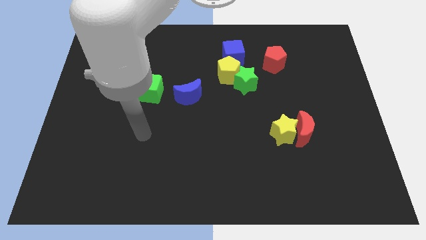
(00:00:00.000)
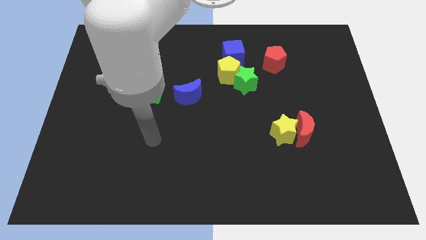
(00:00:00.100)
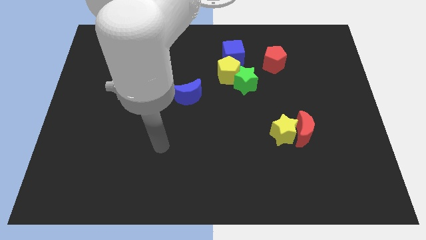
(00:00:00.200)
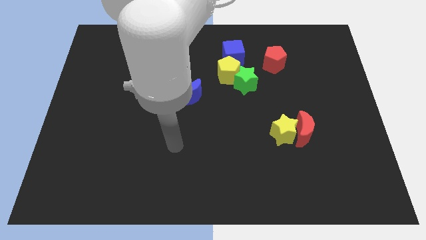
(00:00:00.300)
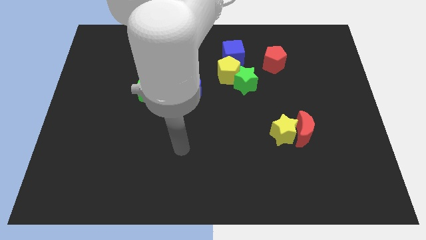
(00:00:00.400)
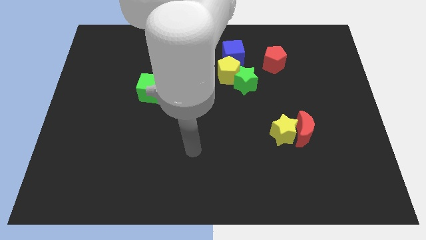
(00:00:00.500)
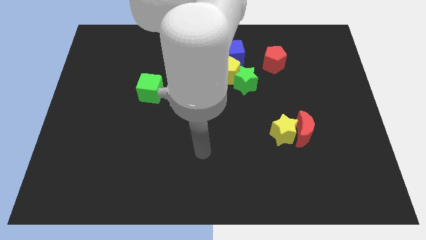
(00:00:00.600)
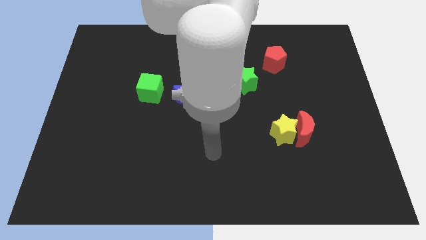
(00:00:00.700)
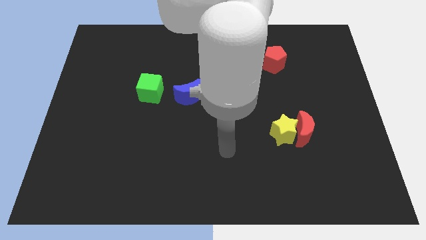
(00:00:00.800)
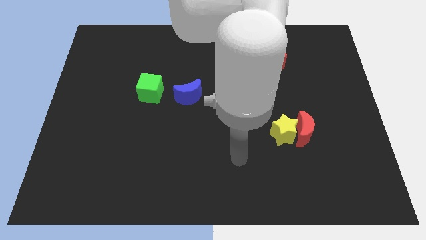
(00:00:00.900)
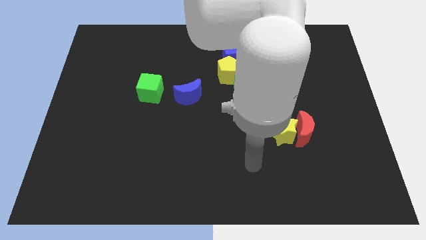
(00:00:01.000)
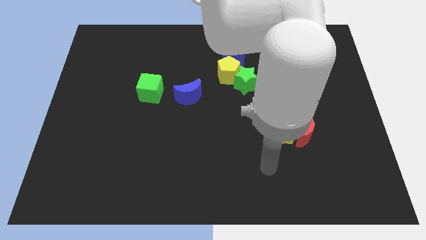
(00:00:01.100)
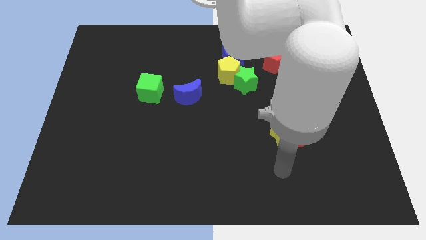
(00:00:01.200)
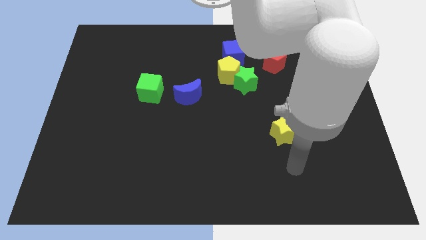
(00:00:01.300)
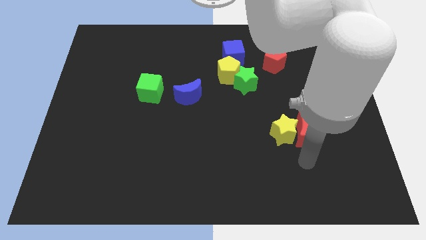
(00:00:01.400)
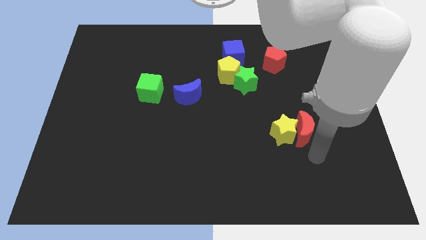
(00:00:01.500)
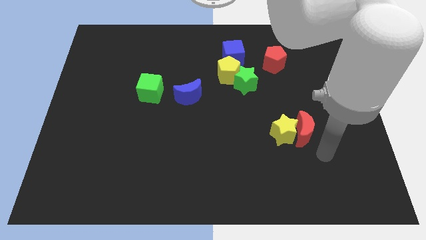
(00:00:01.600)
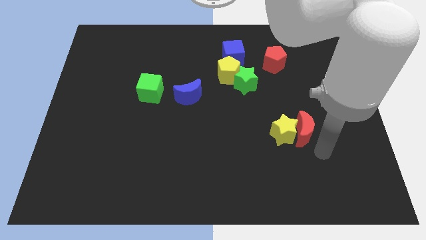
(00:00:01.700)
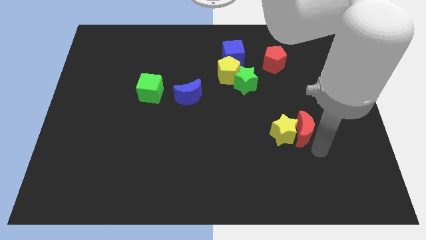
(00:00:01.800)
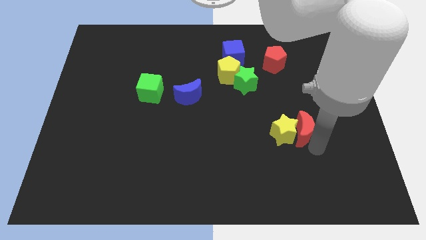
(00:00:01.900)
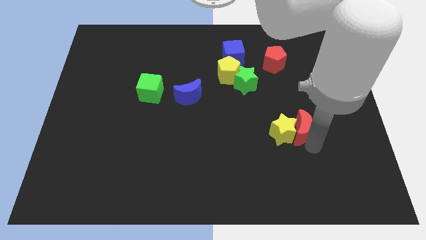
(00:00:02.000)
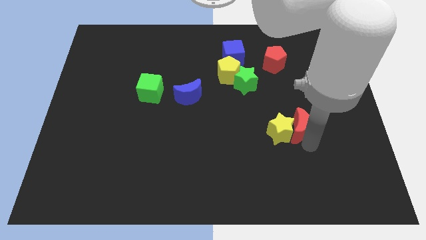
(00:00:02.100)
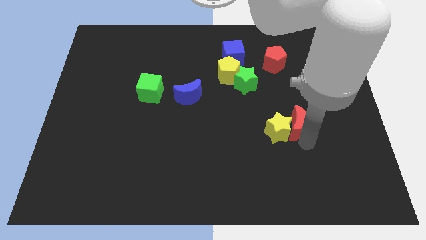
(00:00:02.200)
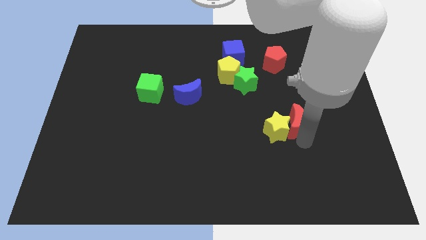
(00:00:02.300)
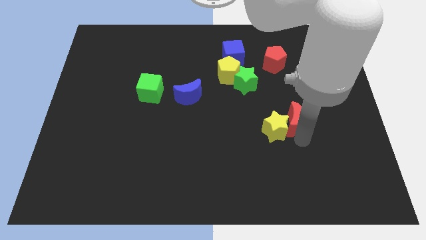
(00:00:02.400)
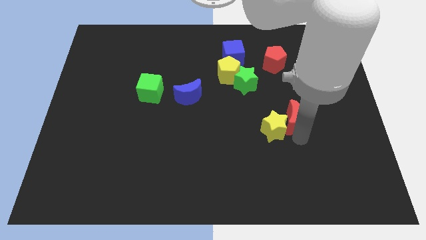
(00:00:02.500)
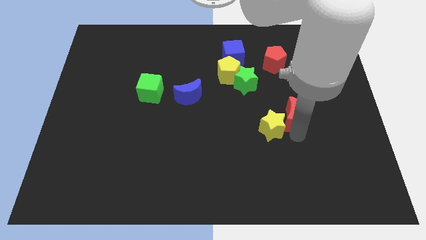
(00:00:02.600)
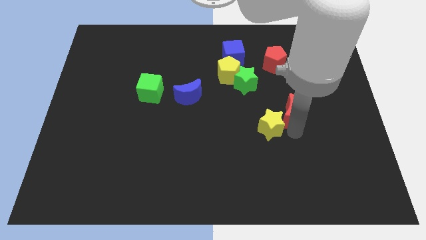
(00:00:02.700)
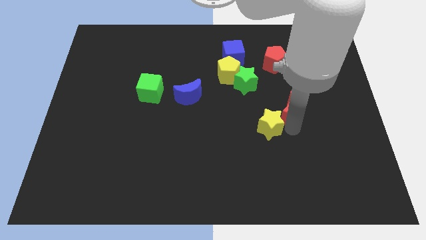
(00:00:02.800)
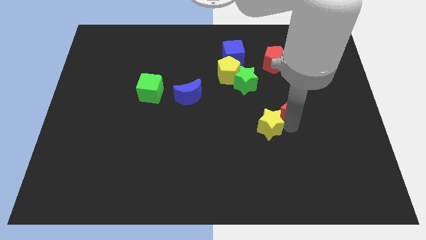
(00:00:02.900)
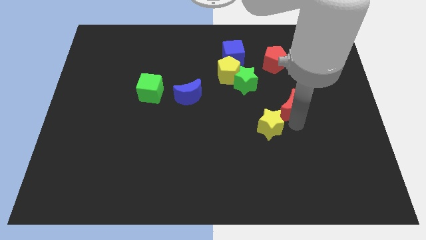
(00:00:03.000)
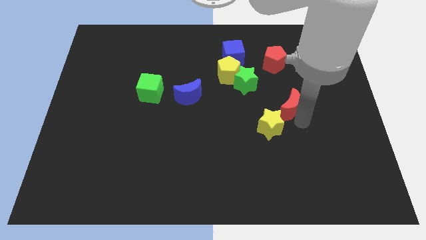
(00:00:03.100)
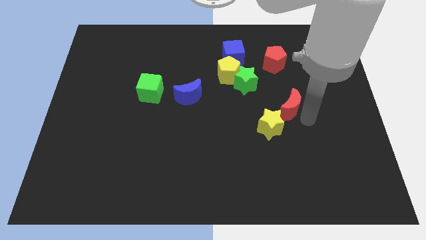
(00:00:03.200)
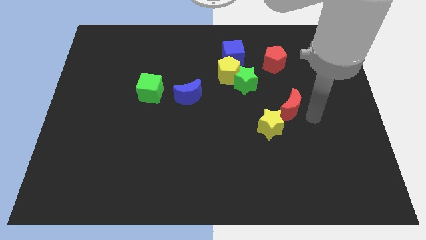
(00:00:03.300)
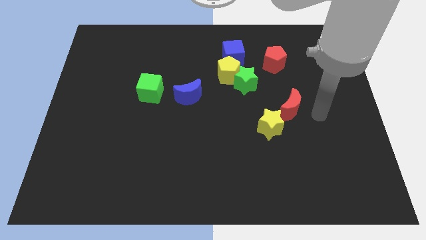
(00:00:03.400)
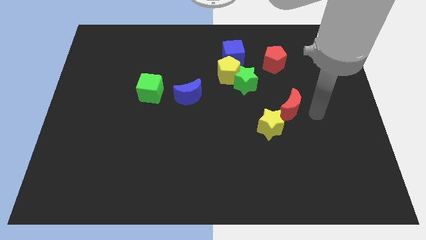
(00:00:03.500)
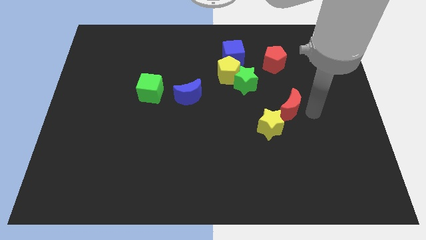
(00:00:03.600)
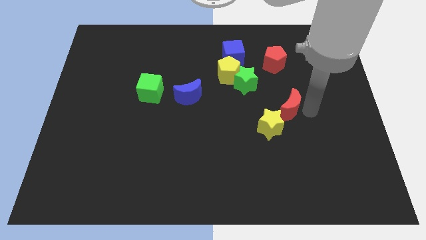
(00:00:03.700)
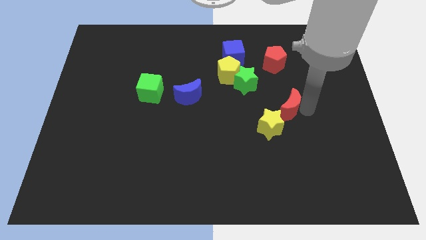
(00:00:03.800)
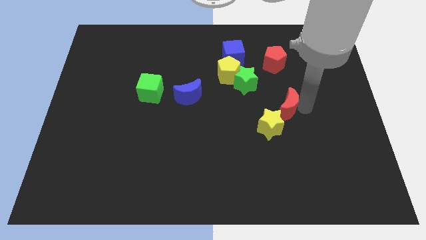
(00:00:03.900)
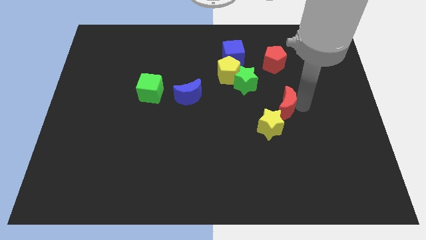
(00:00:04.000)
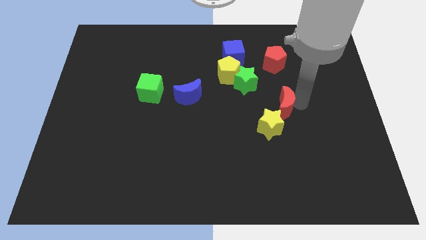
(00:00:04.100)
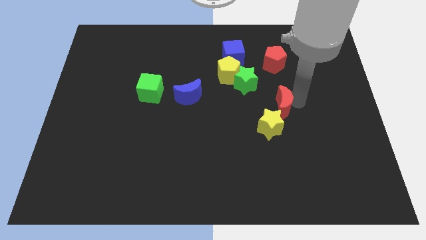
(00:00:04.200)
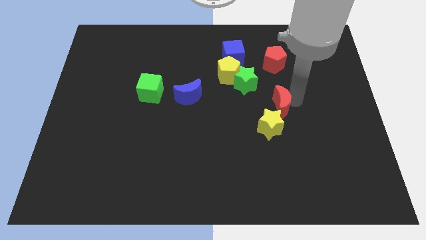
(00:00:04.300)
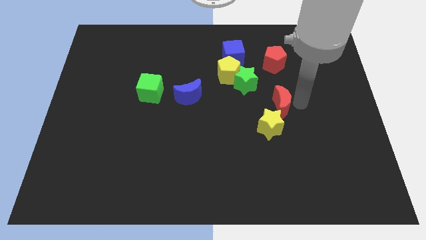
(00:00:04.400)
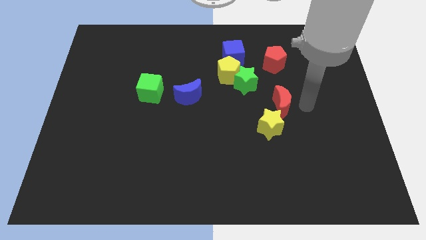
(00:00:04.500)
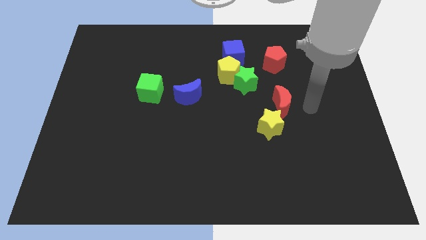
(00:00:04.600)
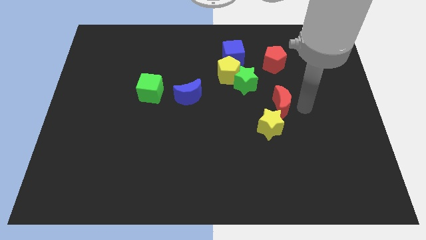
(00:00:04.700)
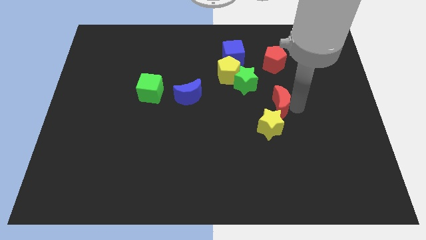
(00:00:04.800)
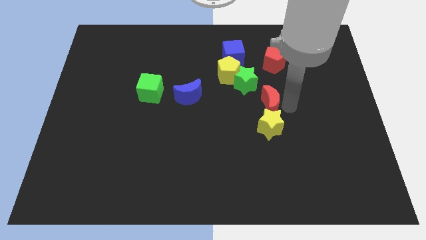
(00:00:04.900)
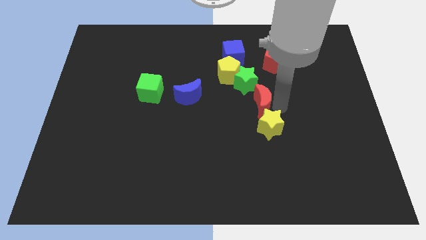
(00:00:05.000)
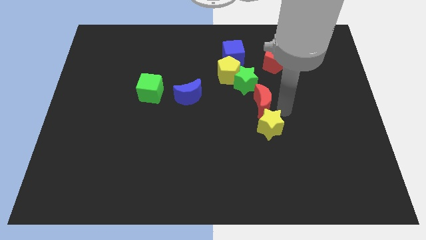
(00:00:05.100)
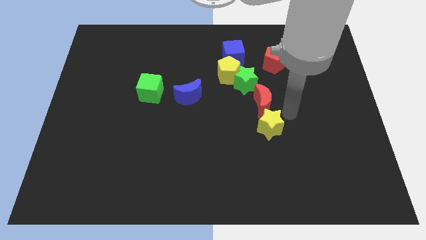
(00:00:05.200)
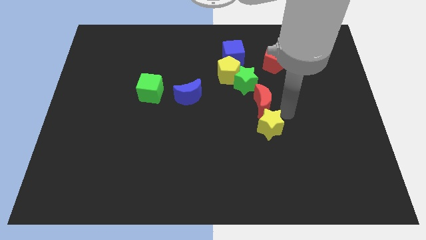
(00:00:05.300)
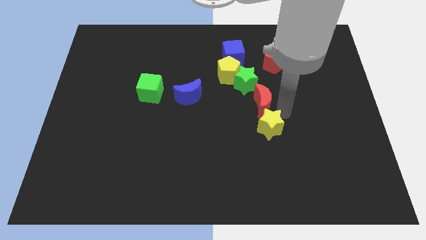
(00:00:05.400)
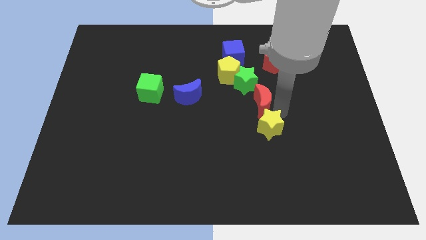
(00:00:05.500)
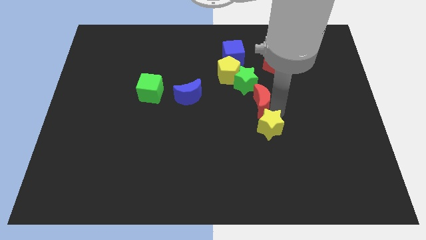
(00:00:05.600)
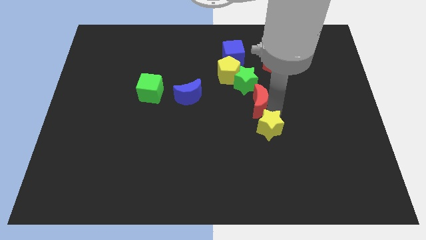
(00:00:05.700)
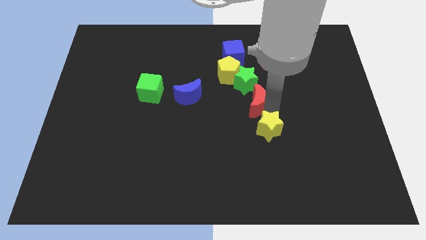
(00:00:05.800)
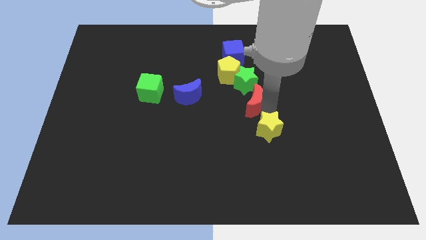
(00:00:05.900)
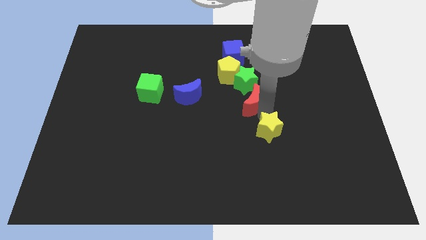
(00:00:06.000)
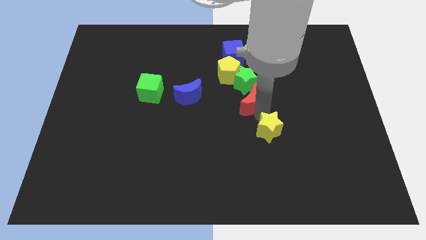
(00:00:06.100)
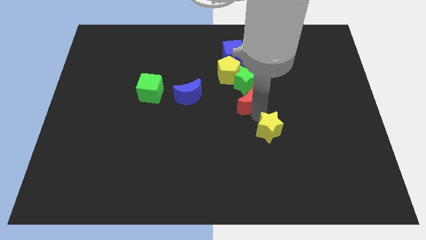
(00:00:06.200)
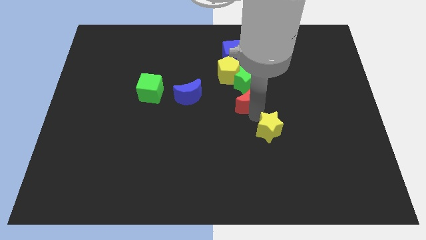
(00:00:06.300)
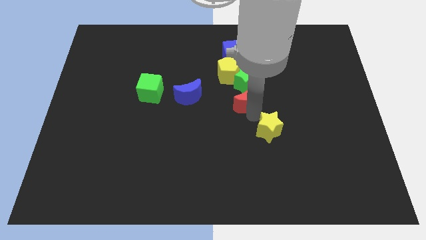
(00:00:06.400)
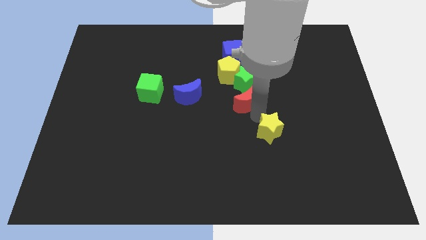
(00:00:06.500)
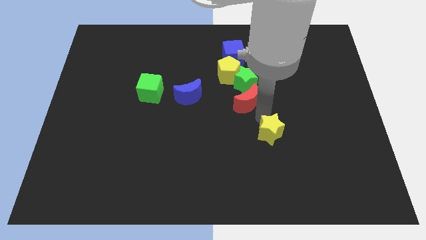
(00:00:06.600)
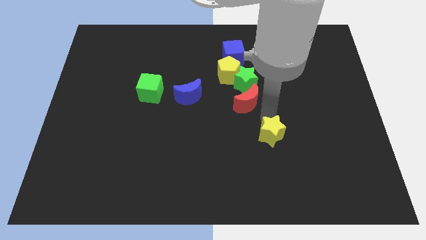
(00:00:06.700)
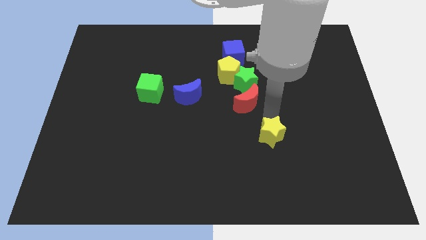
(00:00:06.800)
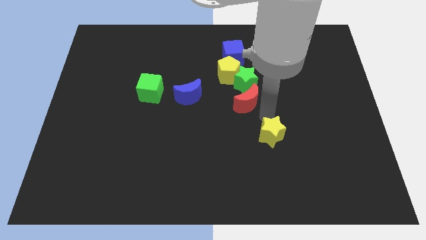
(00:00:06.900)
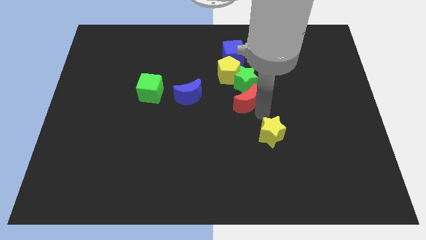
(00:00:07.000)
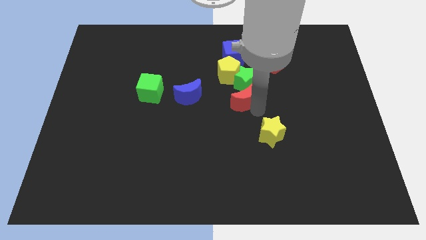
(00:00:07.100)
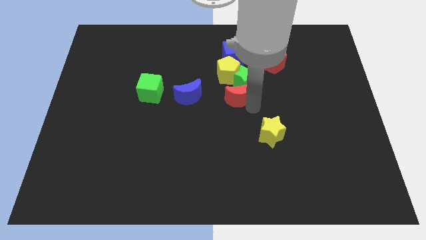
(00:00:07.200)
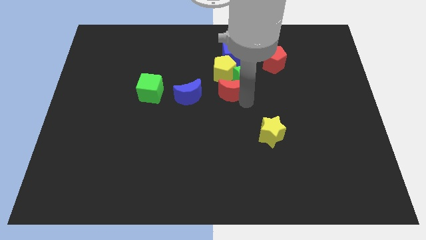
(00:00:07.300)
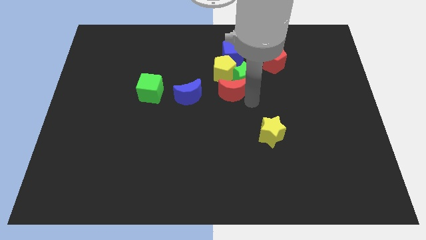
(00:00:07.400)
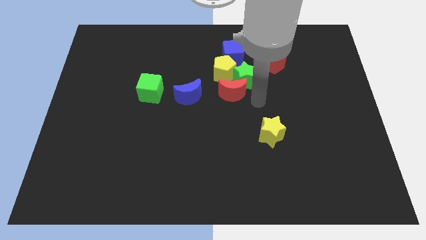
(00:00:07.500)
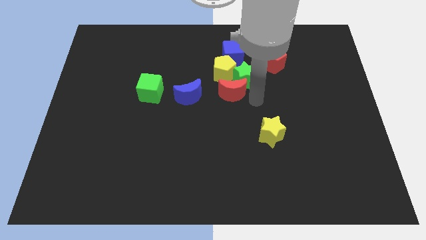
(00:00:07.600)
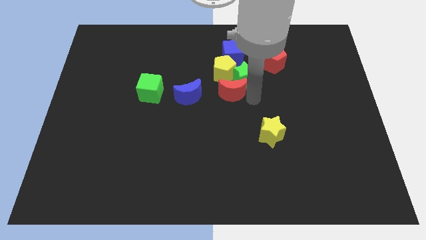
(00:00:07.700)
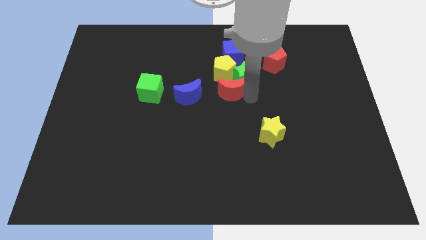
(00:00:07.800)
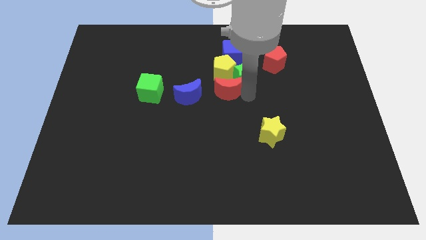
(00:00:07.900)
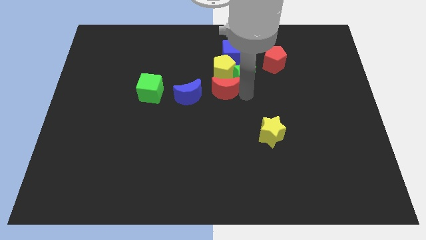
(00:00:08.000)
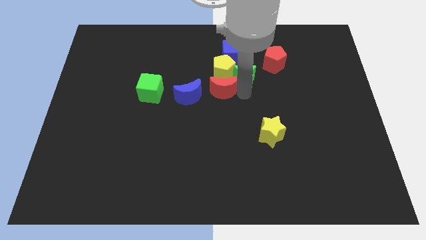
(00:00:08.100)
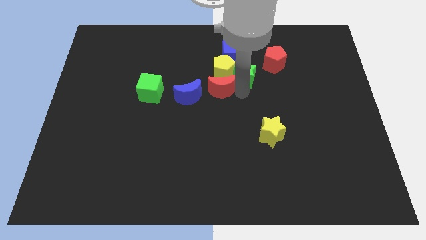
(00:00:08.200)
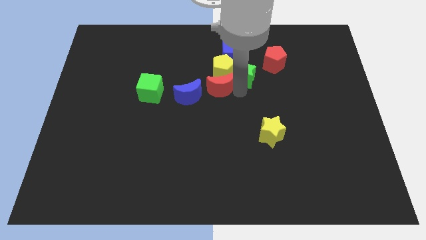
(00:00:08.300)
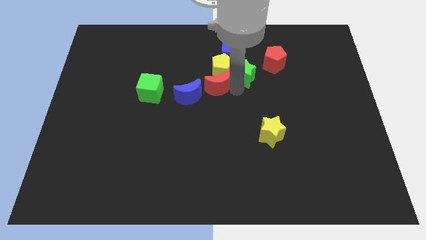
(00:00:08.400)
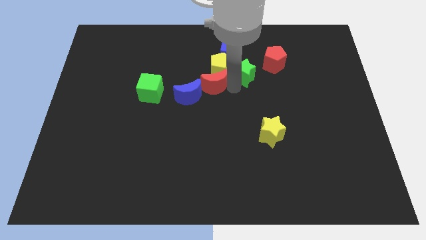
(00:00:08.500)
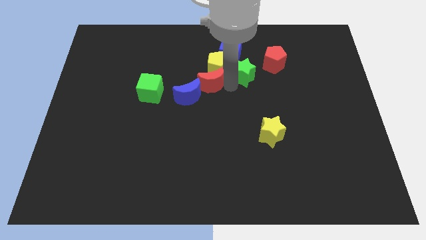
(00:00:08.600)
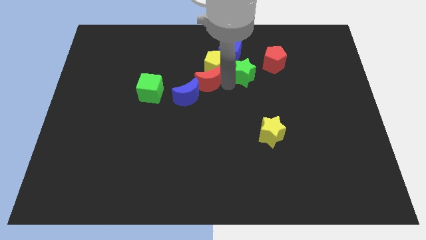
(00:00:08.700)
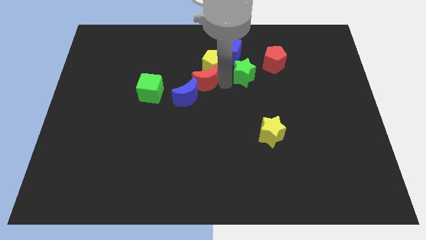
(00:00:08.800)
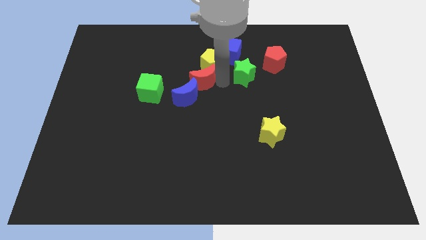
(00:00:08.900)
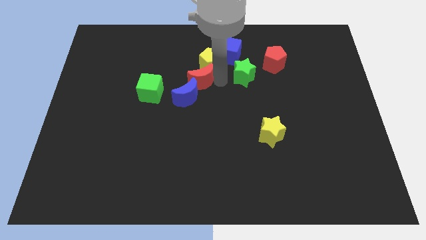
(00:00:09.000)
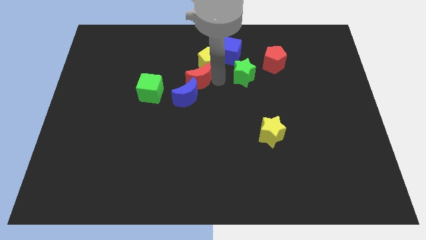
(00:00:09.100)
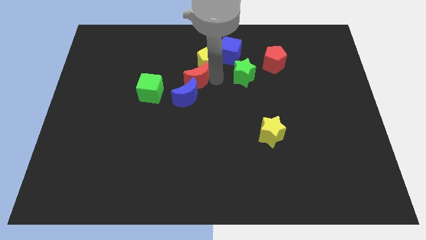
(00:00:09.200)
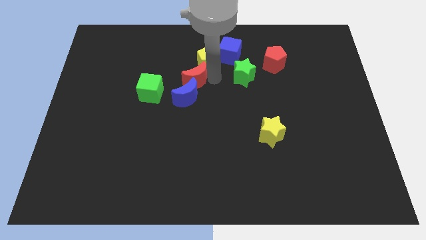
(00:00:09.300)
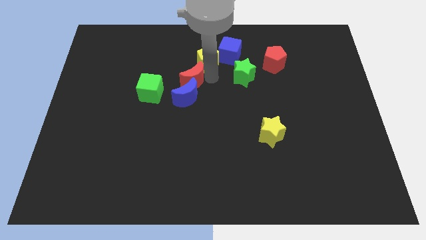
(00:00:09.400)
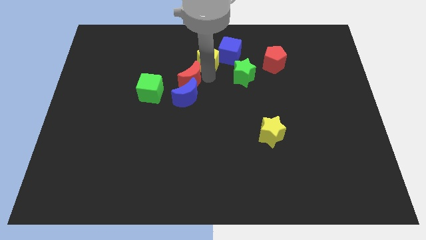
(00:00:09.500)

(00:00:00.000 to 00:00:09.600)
push the red moon to the top right side of the green cube
